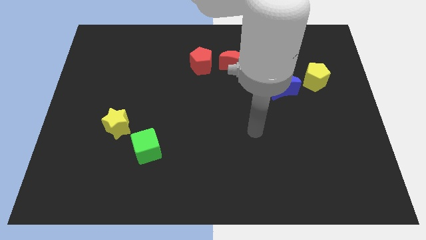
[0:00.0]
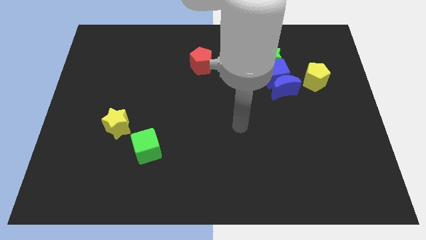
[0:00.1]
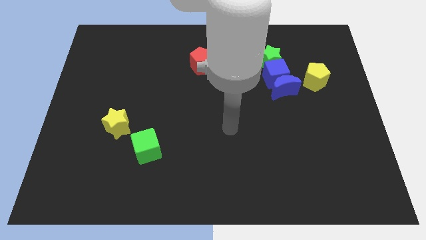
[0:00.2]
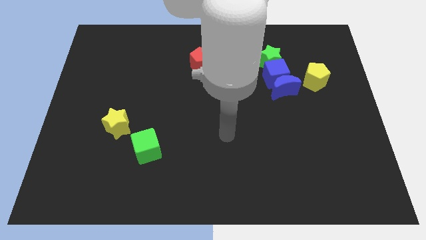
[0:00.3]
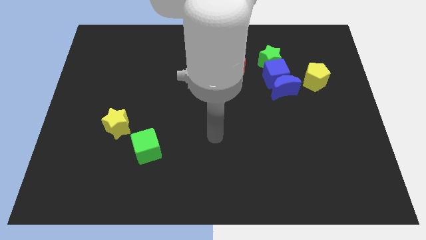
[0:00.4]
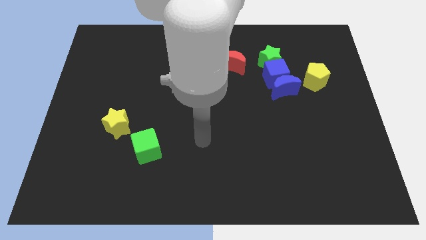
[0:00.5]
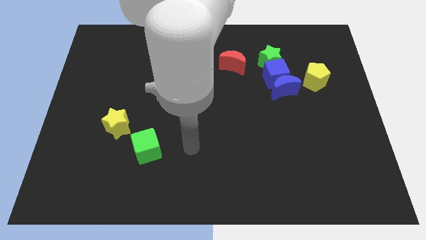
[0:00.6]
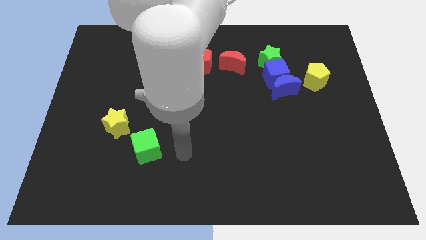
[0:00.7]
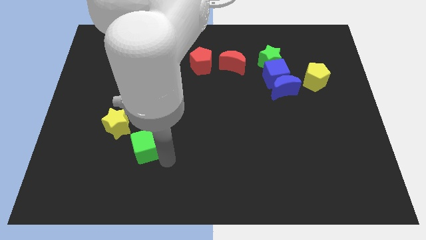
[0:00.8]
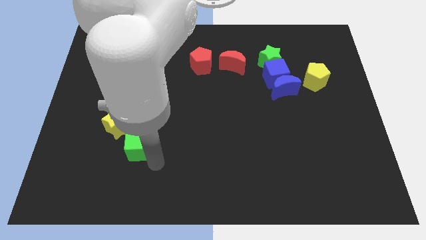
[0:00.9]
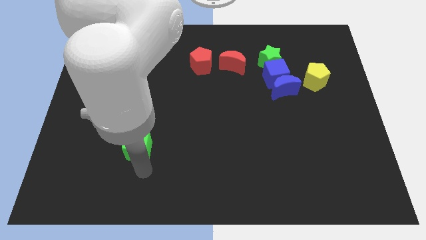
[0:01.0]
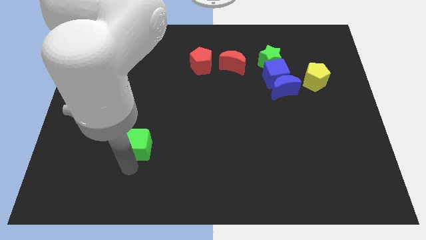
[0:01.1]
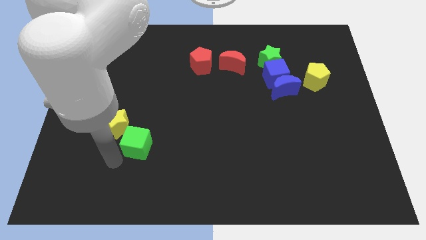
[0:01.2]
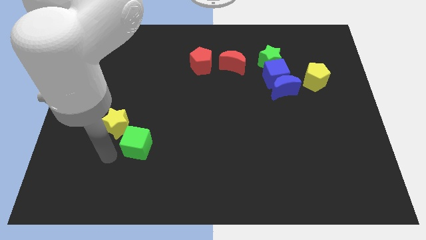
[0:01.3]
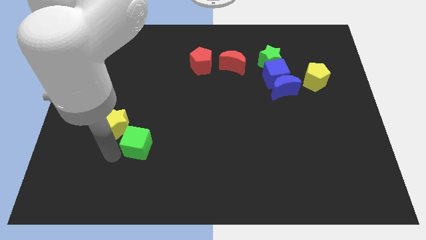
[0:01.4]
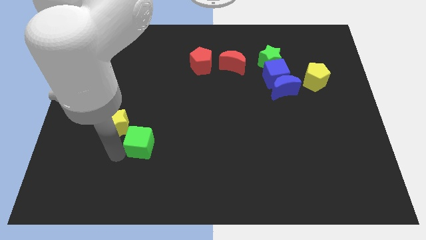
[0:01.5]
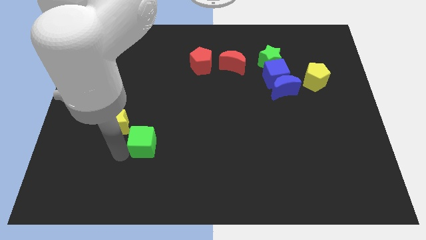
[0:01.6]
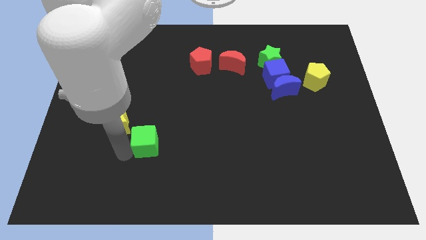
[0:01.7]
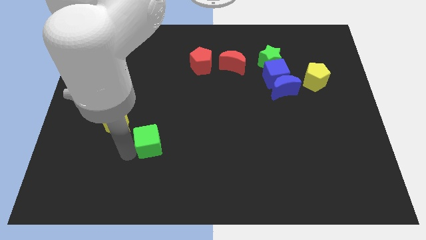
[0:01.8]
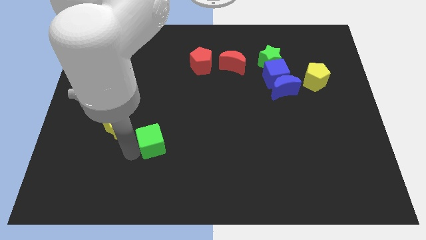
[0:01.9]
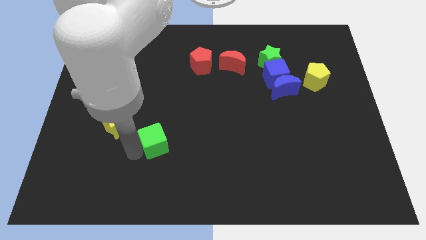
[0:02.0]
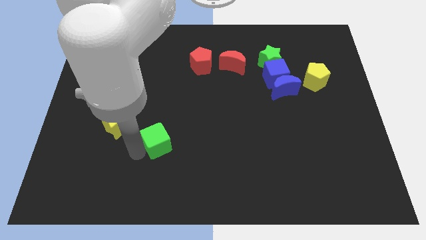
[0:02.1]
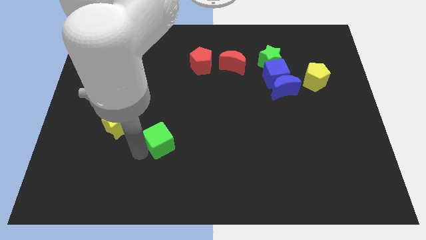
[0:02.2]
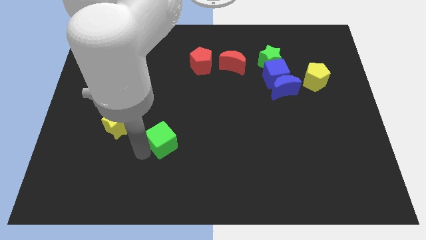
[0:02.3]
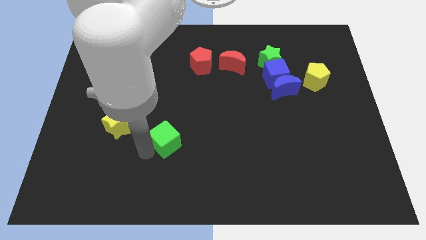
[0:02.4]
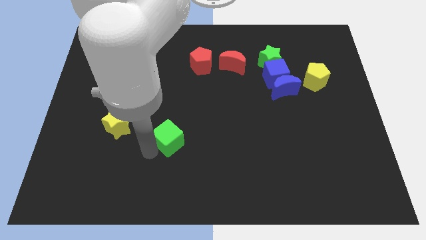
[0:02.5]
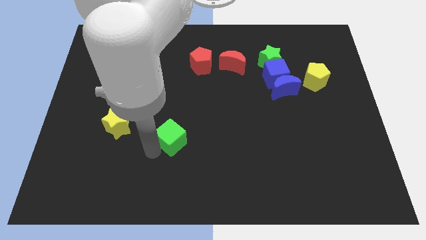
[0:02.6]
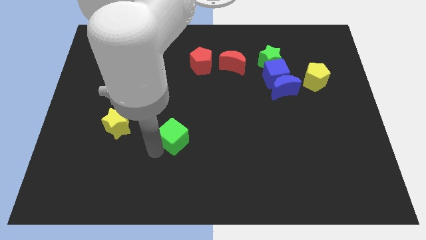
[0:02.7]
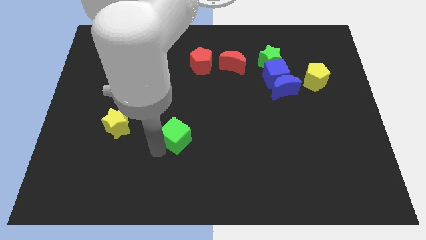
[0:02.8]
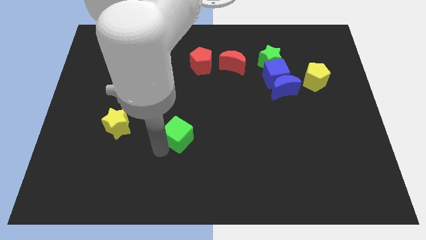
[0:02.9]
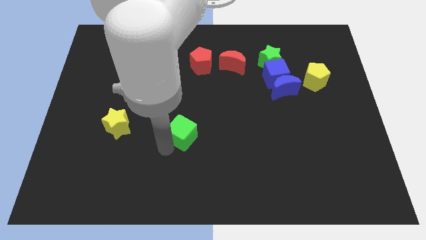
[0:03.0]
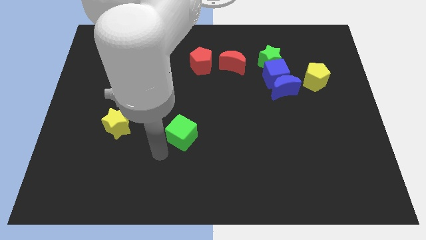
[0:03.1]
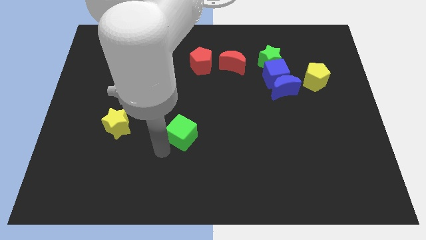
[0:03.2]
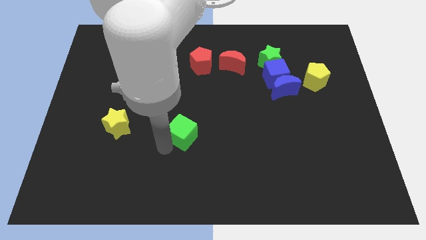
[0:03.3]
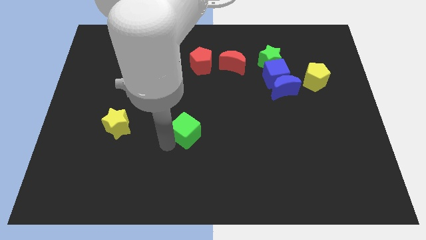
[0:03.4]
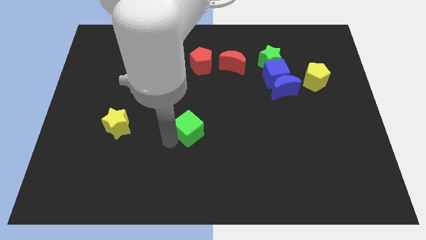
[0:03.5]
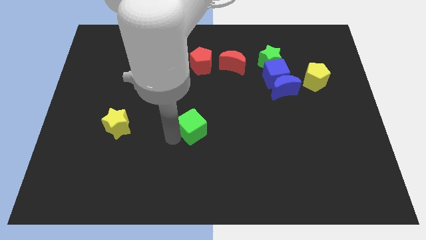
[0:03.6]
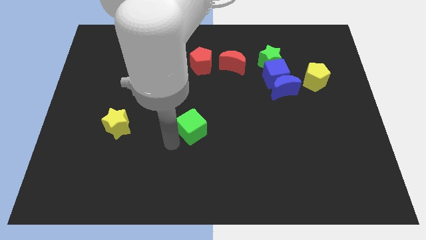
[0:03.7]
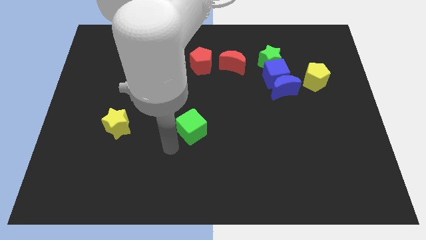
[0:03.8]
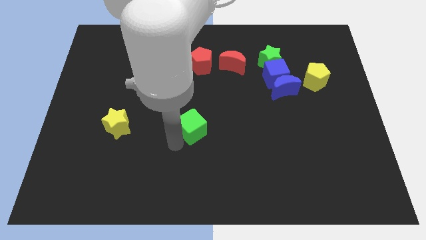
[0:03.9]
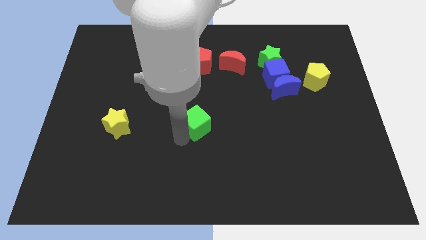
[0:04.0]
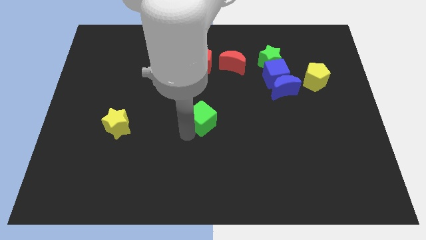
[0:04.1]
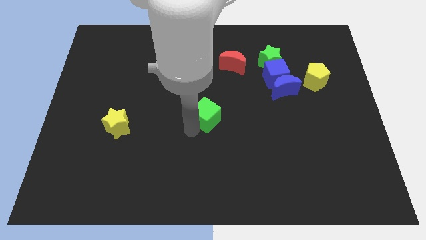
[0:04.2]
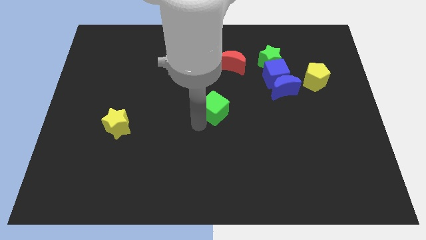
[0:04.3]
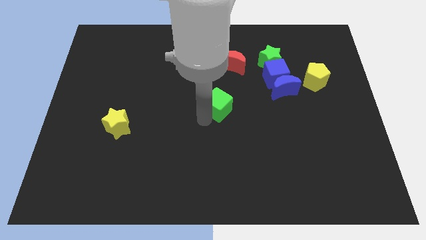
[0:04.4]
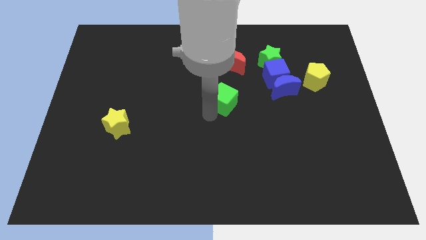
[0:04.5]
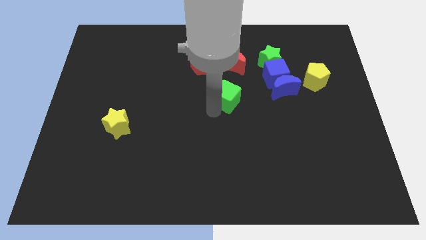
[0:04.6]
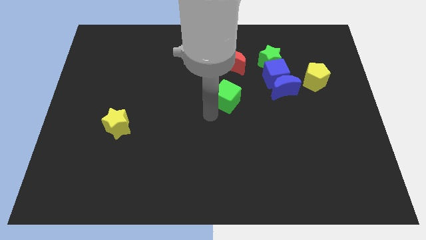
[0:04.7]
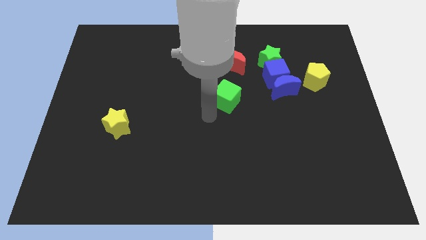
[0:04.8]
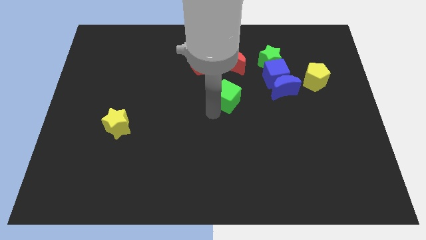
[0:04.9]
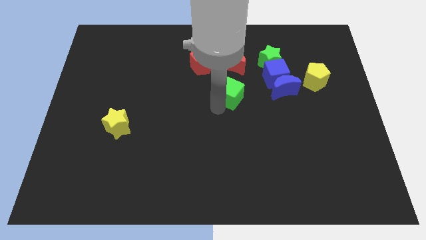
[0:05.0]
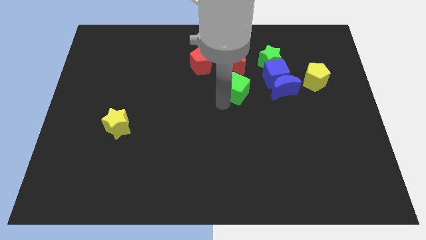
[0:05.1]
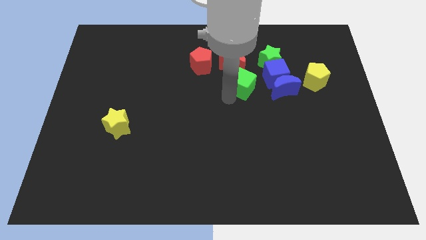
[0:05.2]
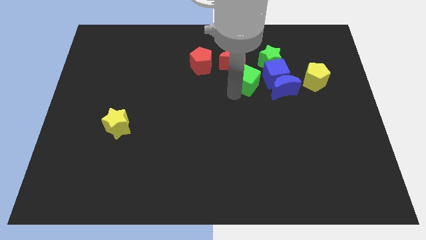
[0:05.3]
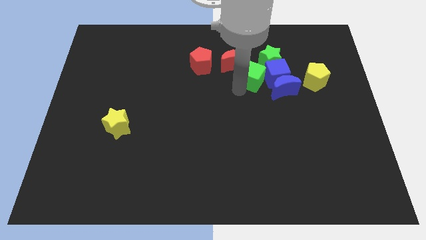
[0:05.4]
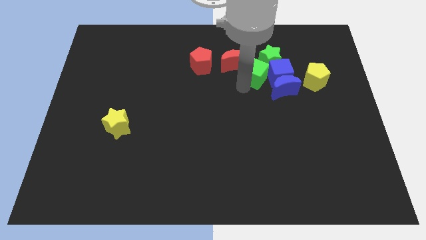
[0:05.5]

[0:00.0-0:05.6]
push the green cube towards the green star

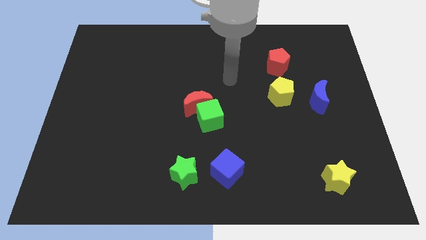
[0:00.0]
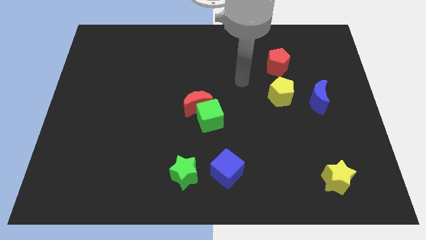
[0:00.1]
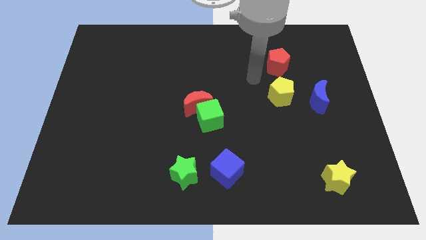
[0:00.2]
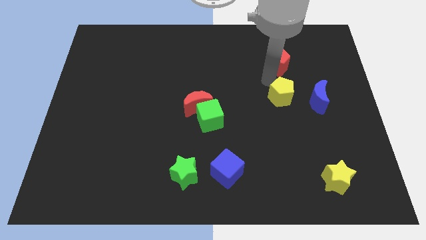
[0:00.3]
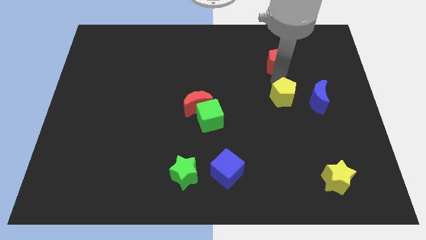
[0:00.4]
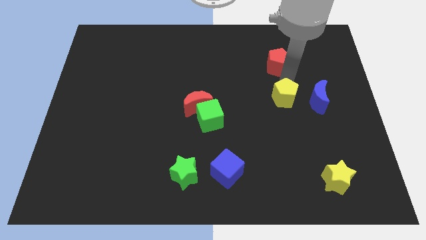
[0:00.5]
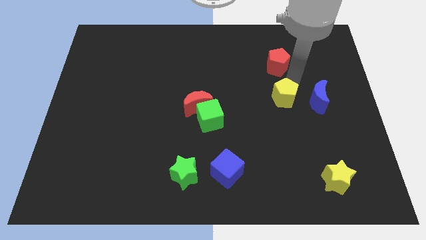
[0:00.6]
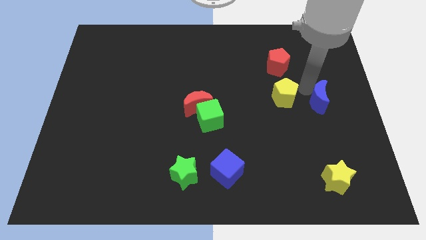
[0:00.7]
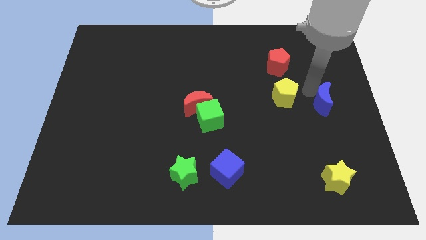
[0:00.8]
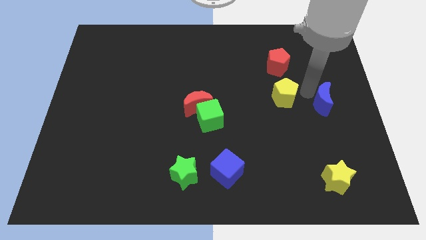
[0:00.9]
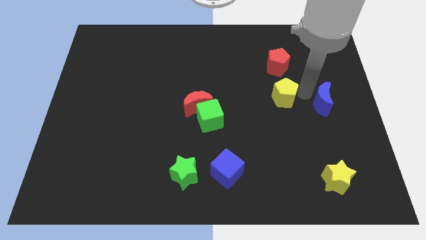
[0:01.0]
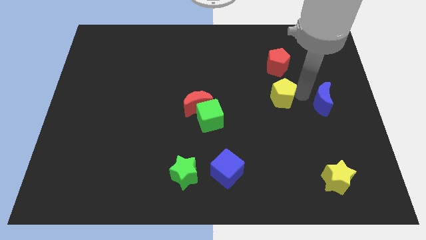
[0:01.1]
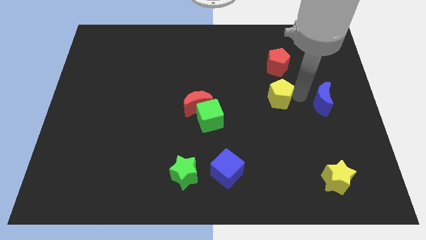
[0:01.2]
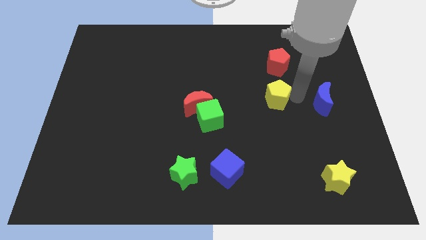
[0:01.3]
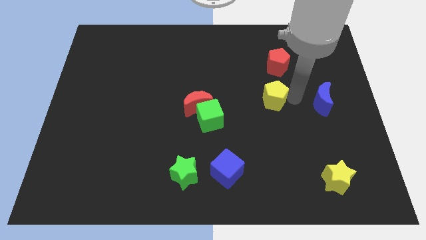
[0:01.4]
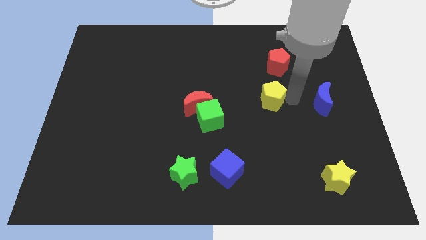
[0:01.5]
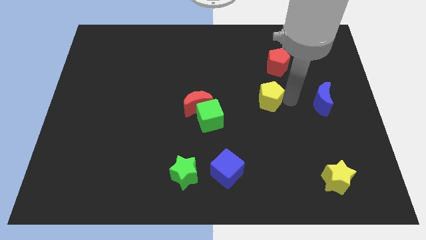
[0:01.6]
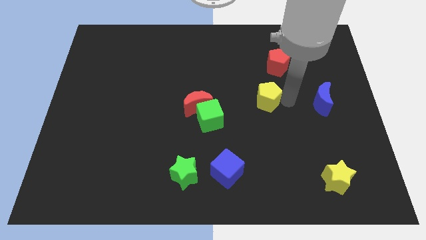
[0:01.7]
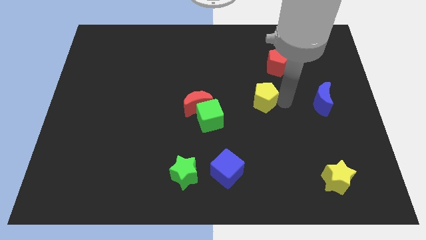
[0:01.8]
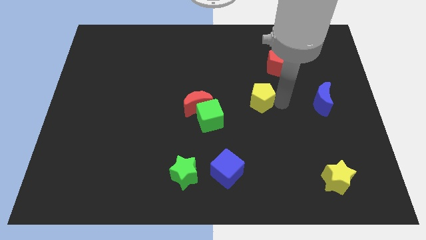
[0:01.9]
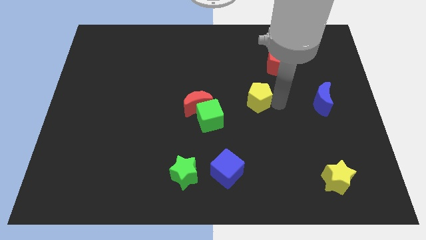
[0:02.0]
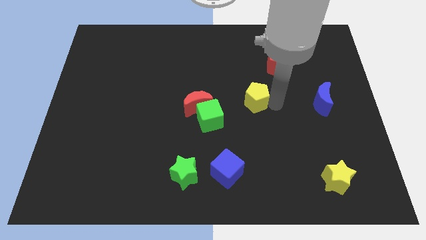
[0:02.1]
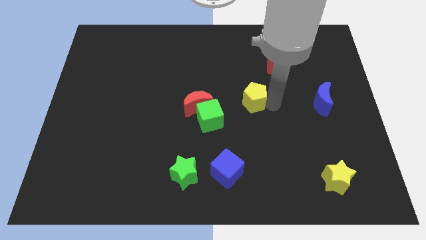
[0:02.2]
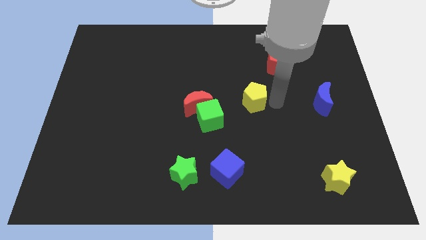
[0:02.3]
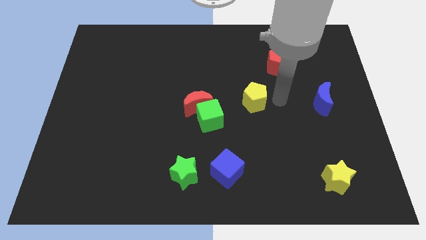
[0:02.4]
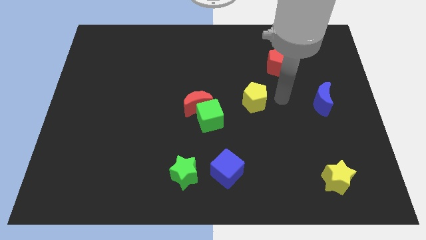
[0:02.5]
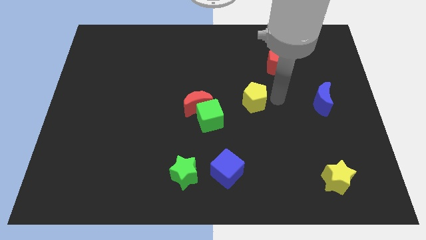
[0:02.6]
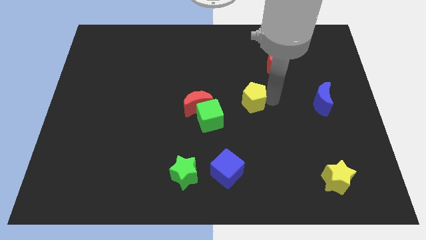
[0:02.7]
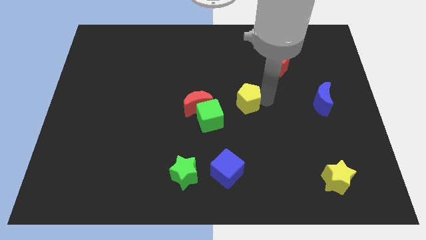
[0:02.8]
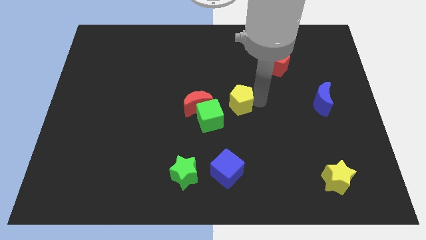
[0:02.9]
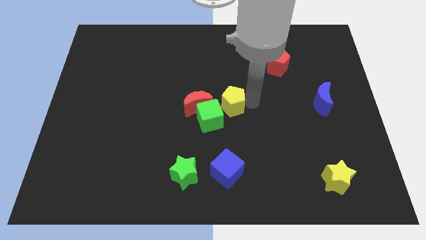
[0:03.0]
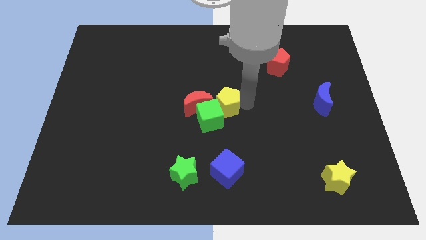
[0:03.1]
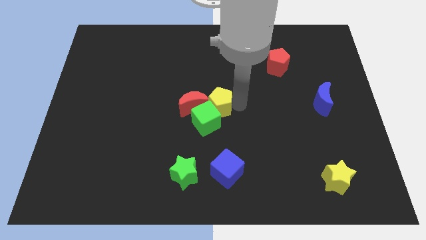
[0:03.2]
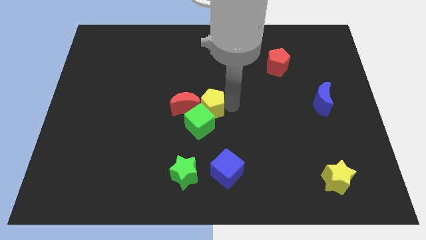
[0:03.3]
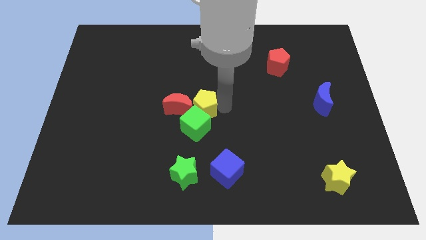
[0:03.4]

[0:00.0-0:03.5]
put the yellow pentagon close to the red moon
